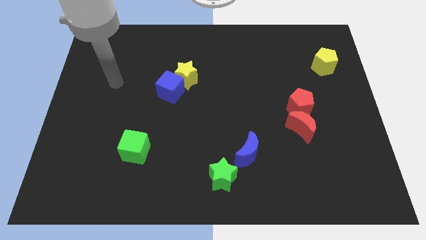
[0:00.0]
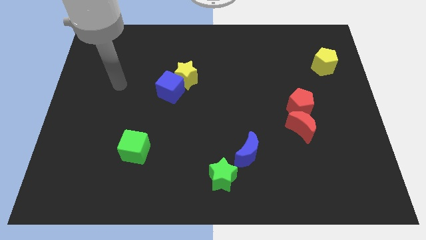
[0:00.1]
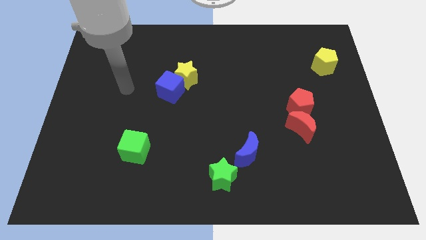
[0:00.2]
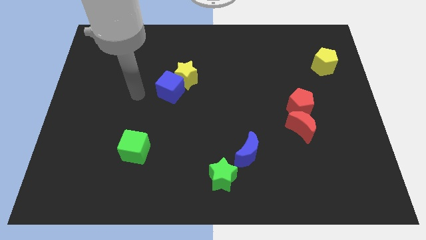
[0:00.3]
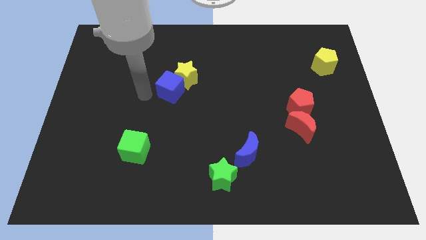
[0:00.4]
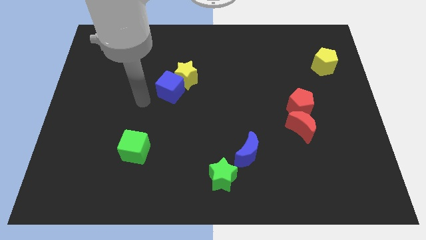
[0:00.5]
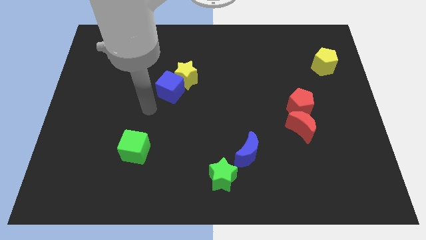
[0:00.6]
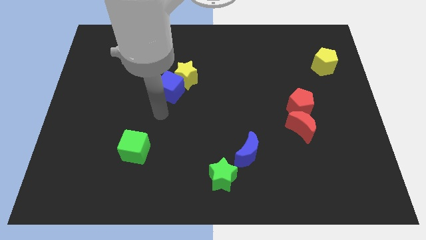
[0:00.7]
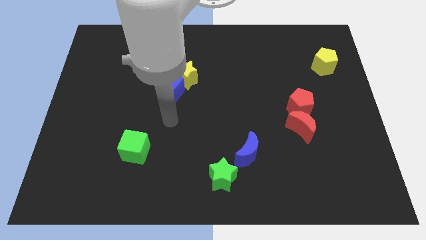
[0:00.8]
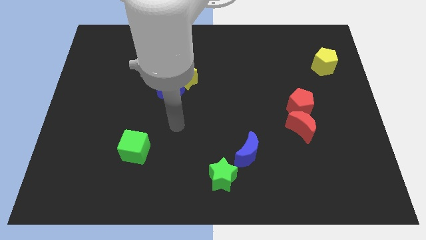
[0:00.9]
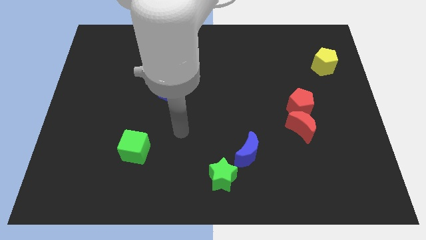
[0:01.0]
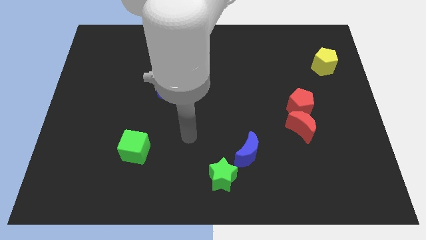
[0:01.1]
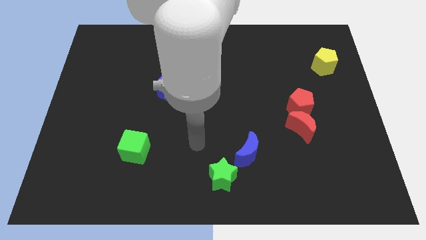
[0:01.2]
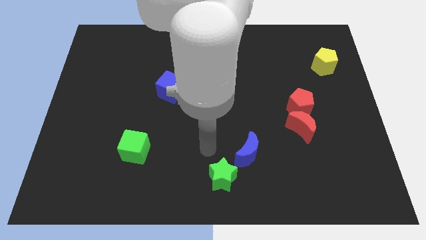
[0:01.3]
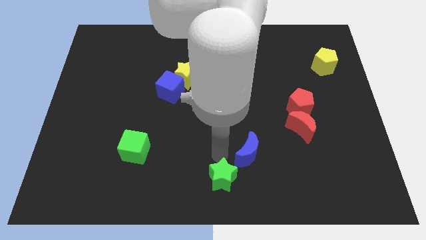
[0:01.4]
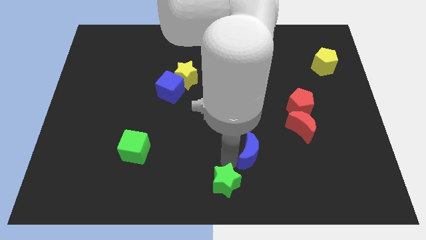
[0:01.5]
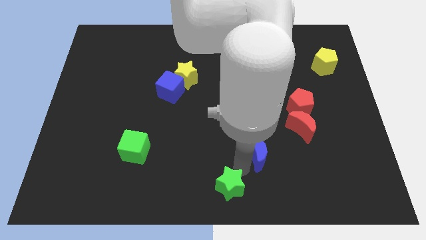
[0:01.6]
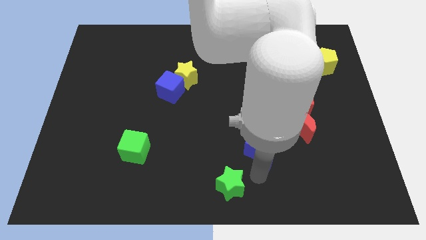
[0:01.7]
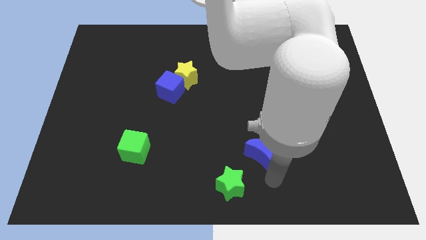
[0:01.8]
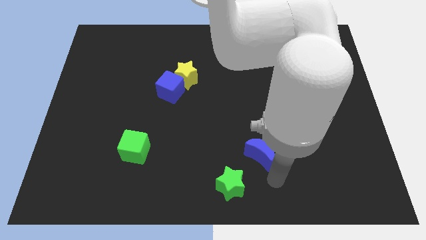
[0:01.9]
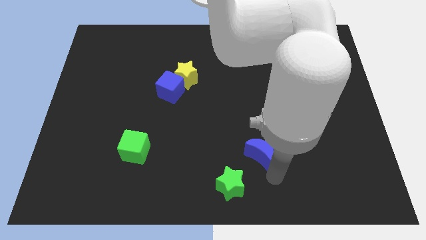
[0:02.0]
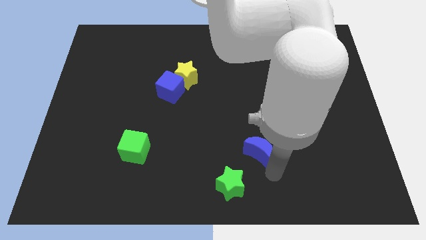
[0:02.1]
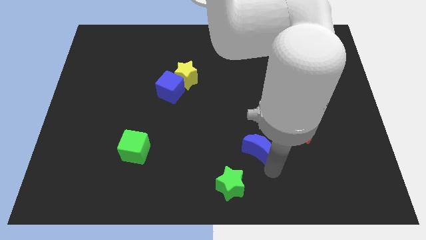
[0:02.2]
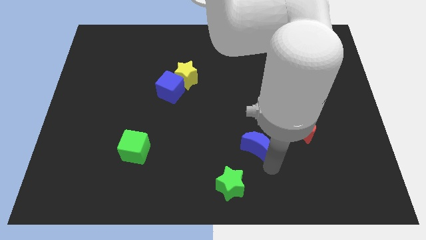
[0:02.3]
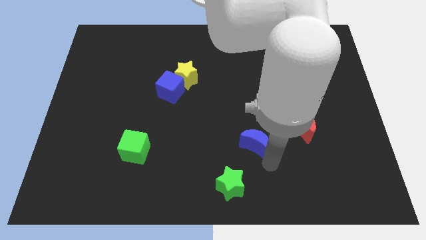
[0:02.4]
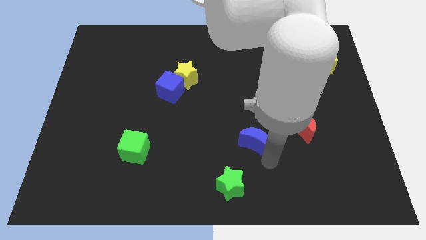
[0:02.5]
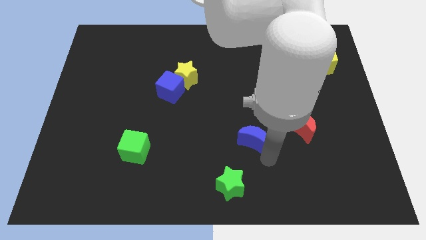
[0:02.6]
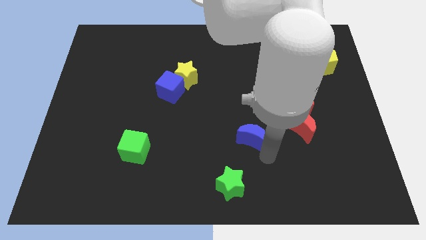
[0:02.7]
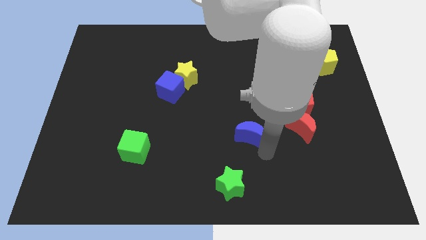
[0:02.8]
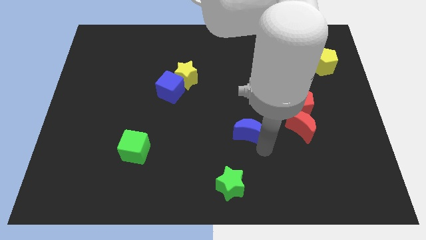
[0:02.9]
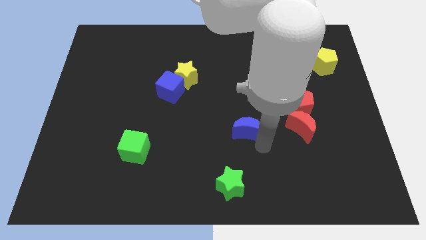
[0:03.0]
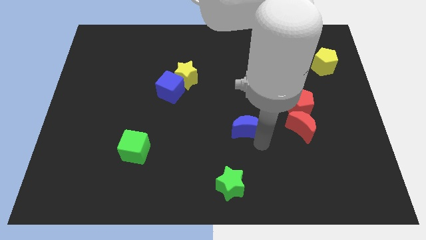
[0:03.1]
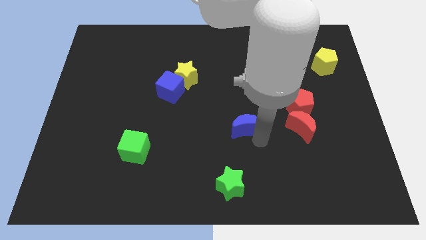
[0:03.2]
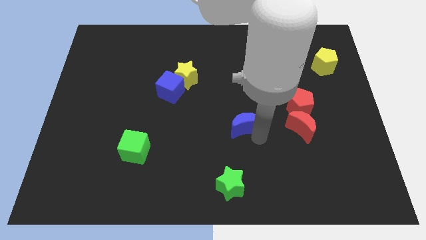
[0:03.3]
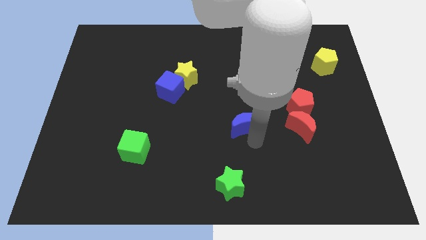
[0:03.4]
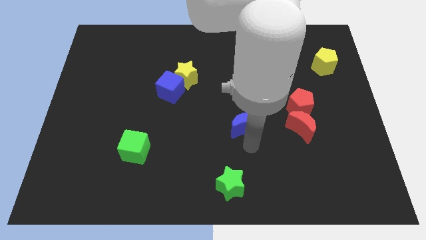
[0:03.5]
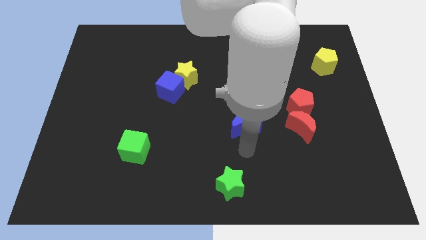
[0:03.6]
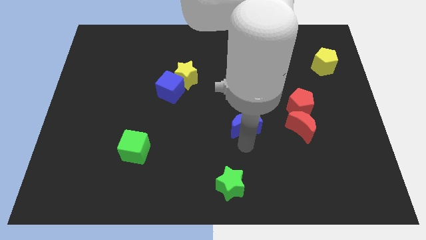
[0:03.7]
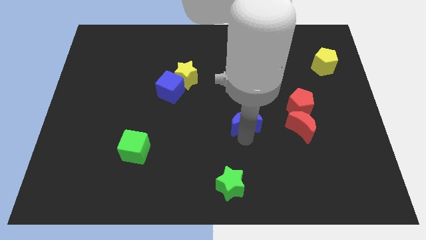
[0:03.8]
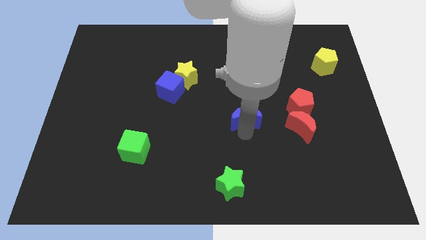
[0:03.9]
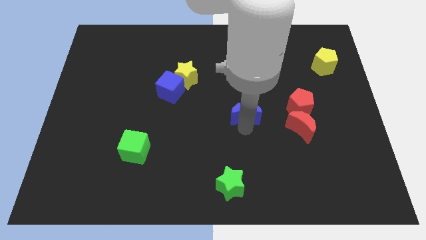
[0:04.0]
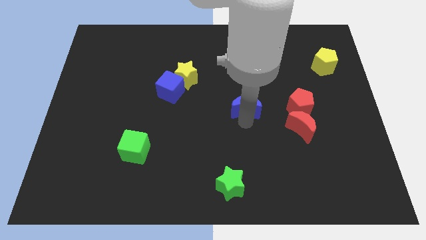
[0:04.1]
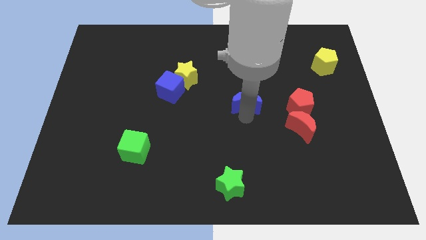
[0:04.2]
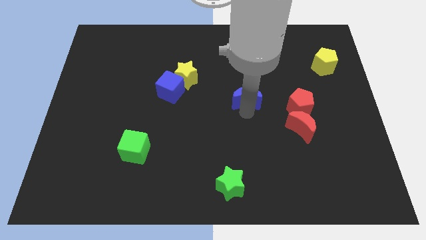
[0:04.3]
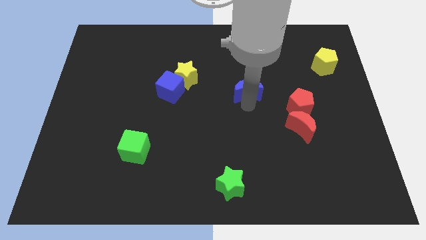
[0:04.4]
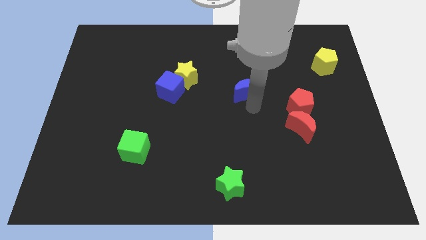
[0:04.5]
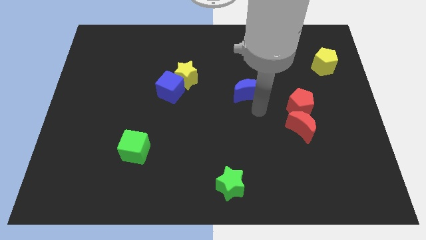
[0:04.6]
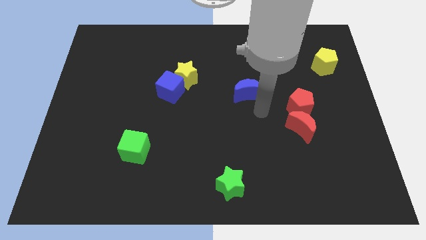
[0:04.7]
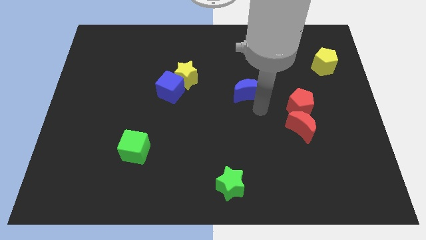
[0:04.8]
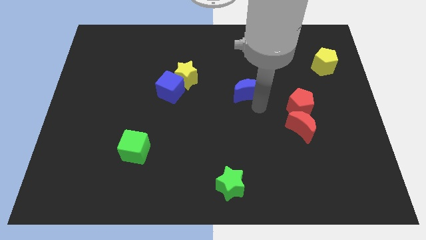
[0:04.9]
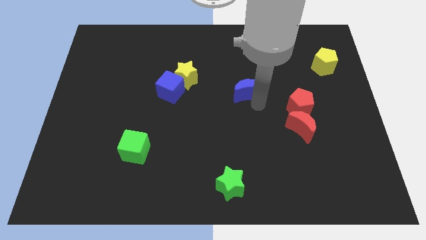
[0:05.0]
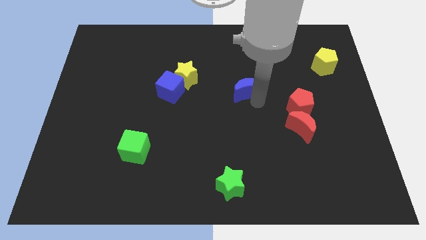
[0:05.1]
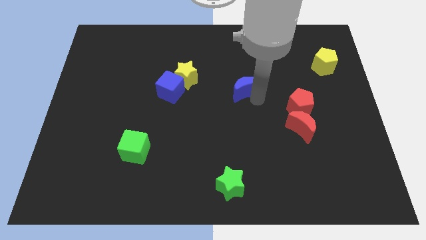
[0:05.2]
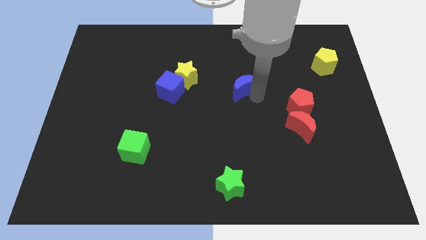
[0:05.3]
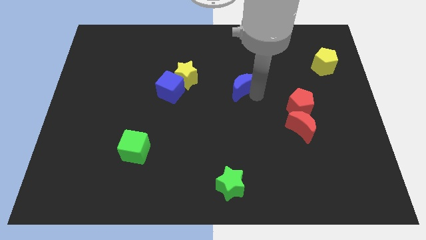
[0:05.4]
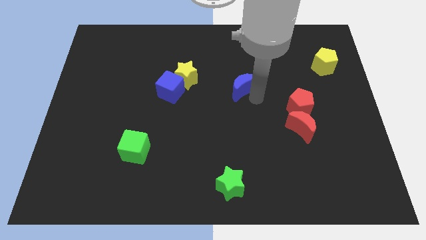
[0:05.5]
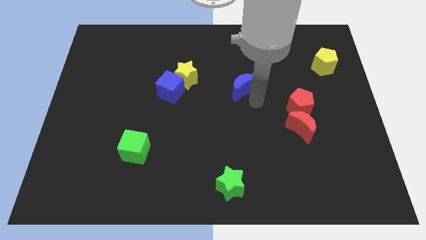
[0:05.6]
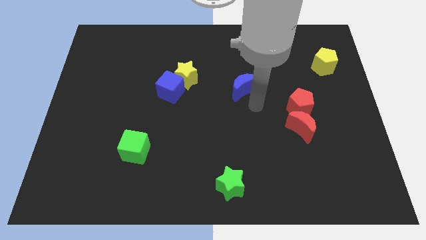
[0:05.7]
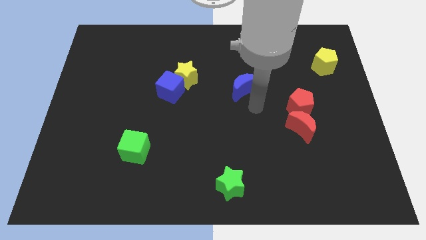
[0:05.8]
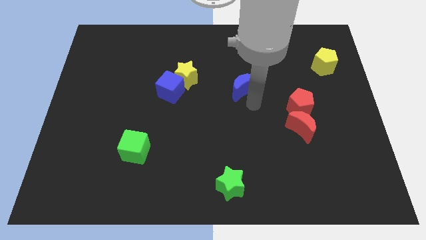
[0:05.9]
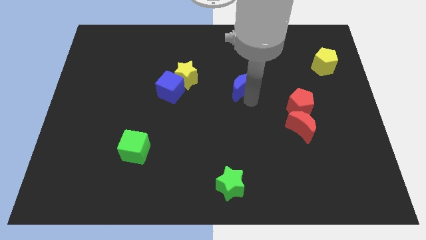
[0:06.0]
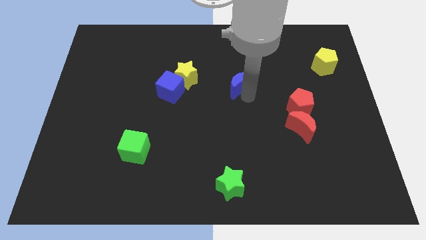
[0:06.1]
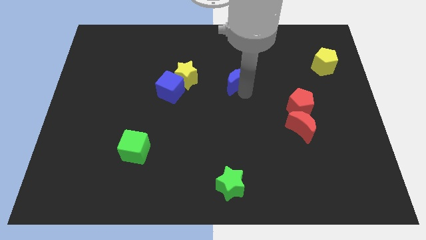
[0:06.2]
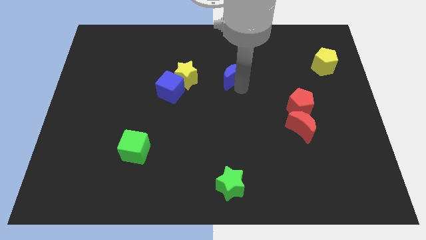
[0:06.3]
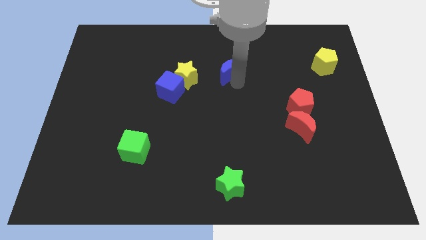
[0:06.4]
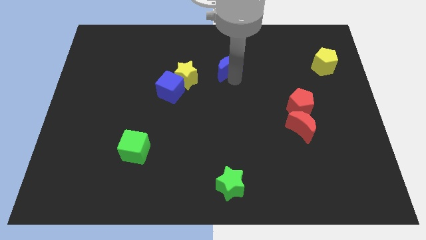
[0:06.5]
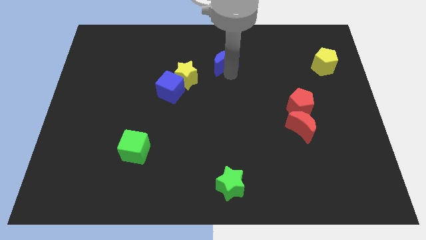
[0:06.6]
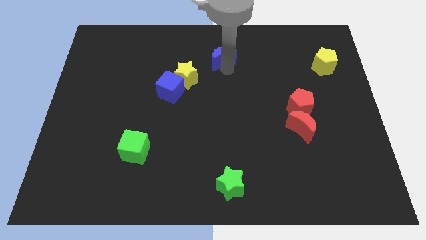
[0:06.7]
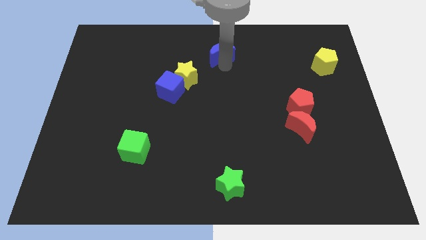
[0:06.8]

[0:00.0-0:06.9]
slide the blue moon to the towards your base
